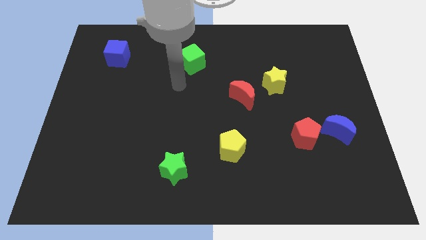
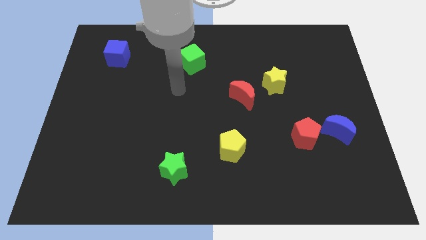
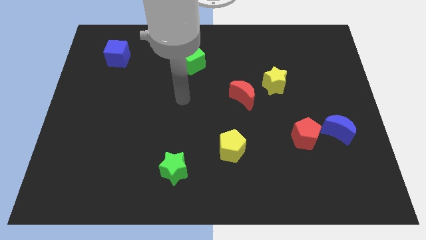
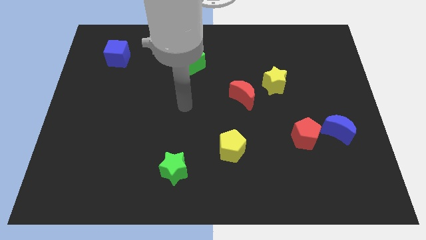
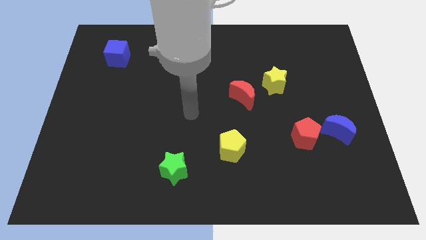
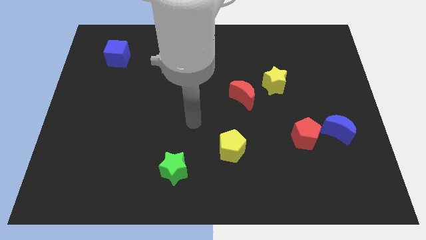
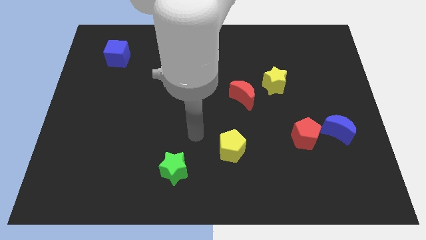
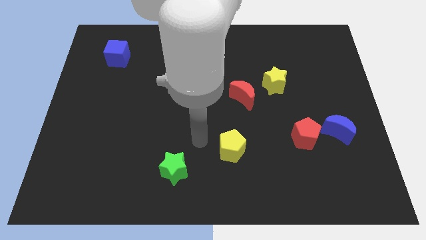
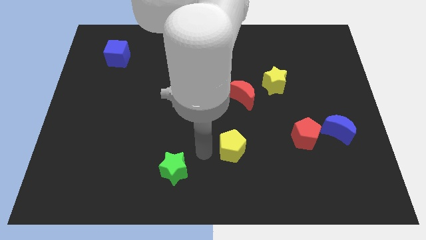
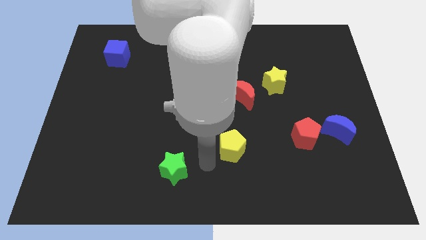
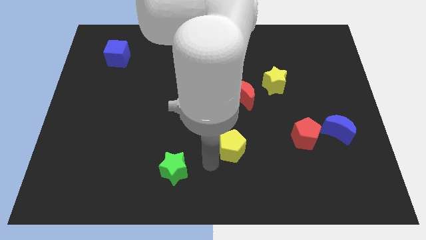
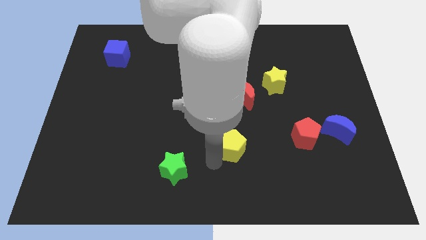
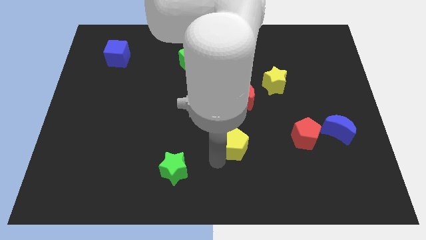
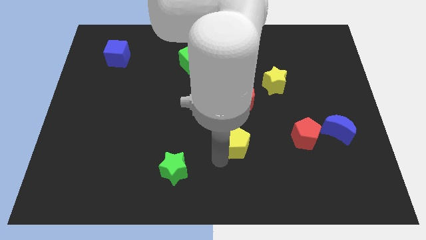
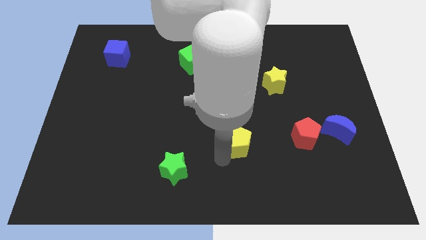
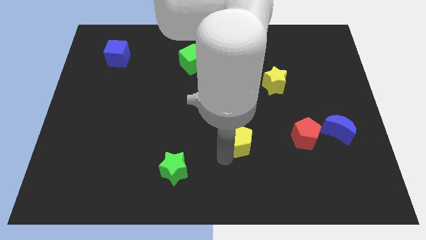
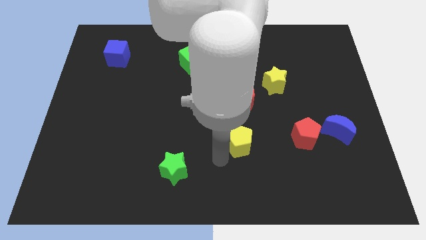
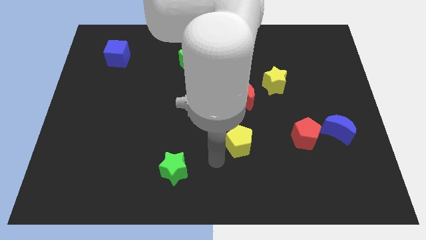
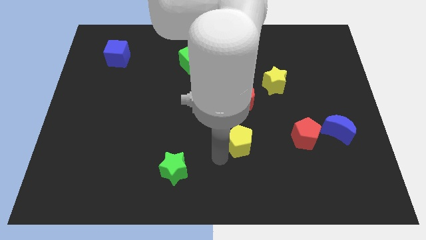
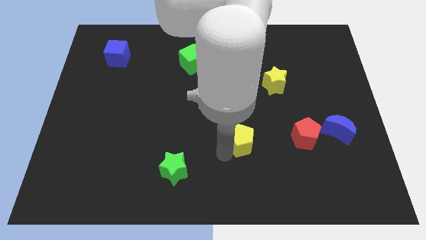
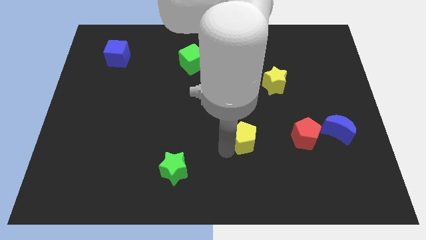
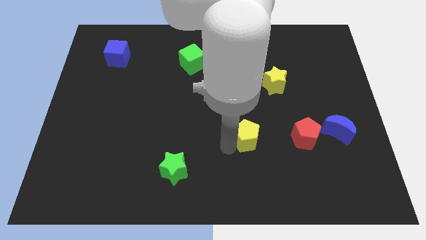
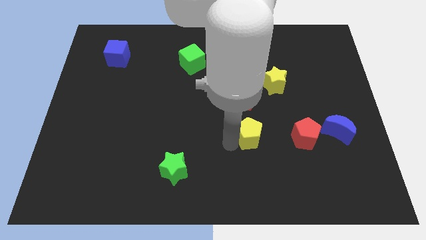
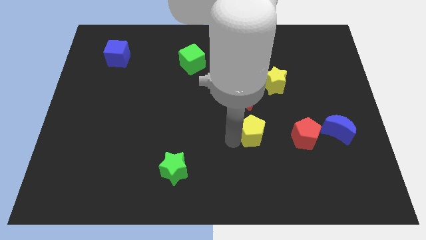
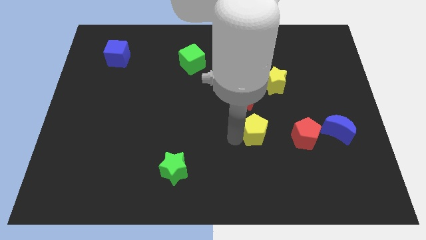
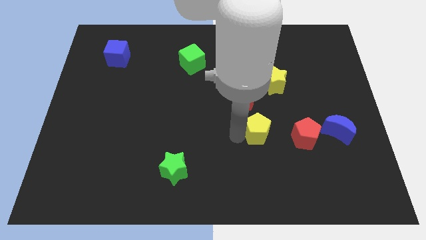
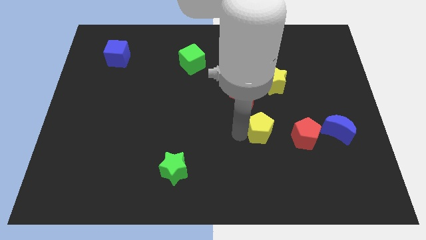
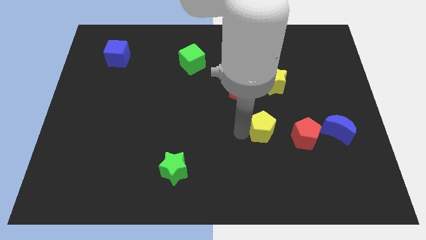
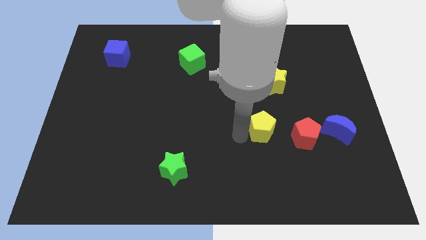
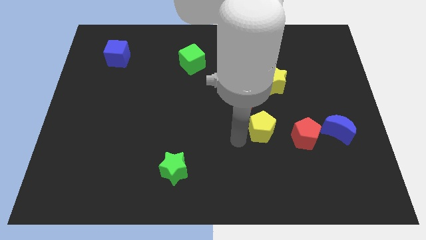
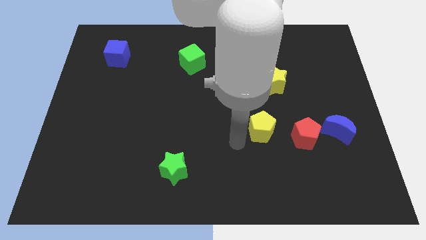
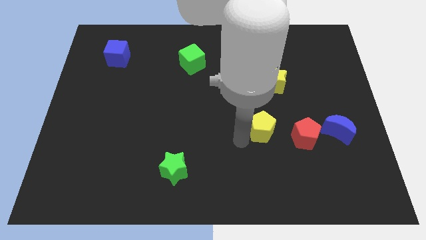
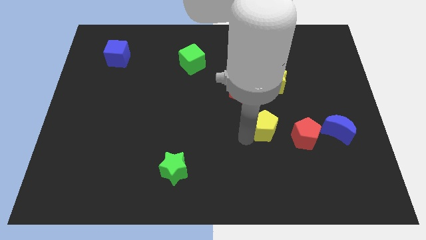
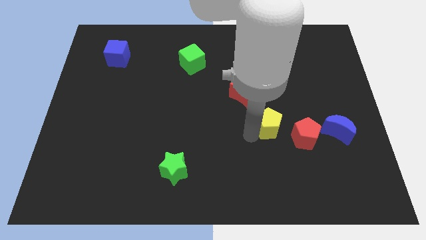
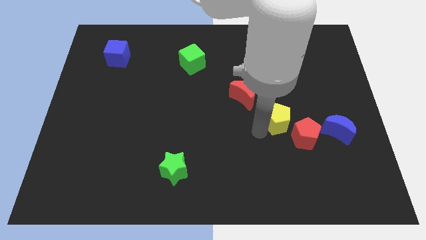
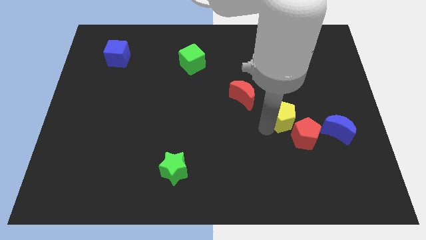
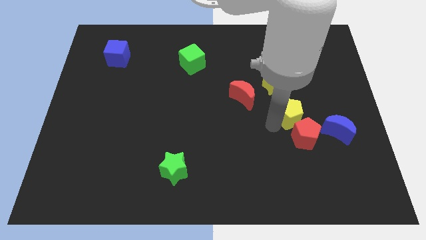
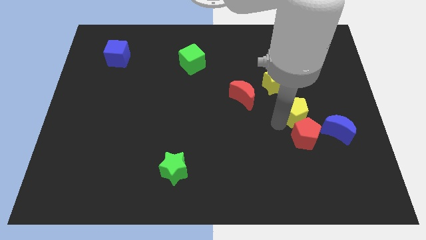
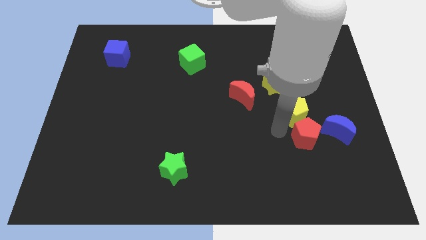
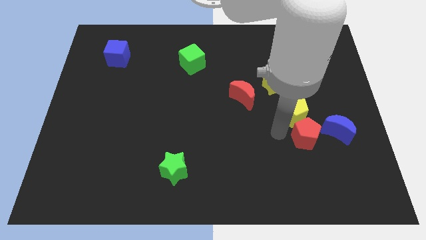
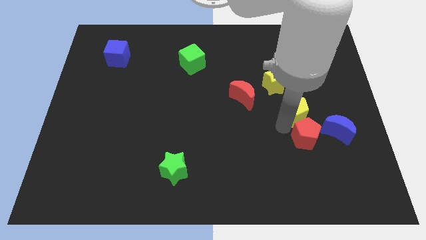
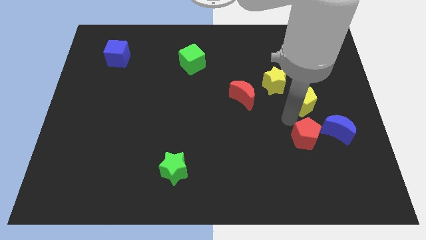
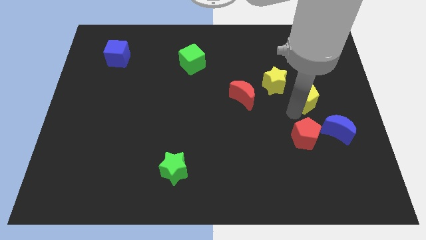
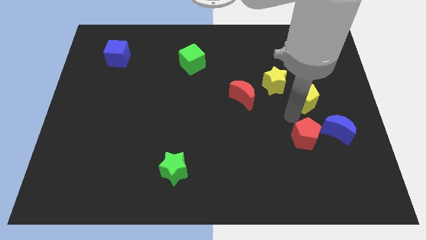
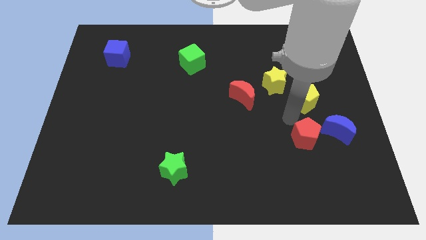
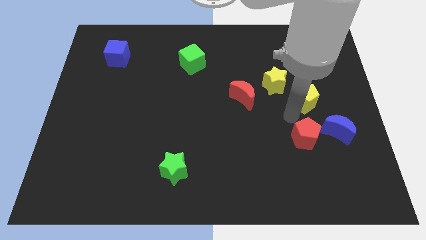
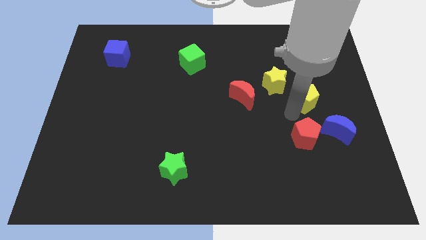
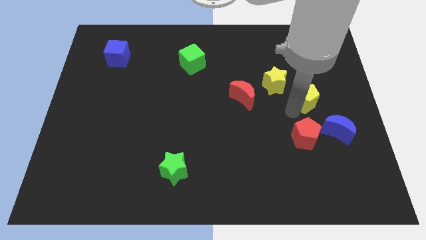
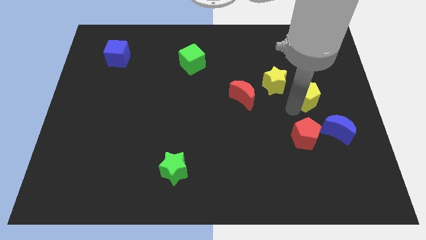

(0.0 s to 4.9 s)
move the yellow pentagon to the right of the yellow star

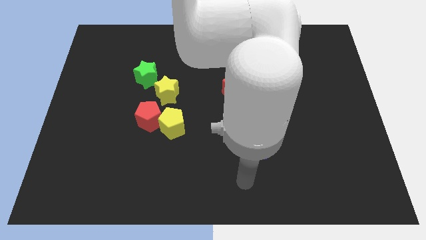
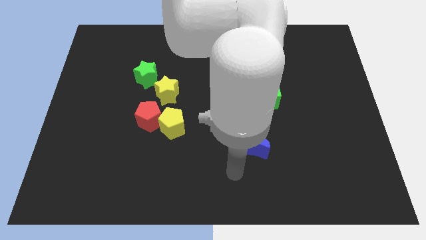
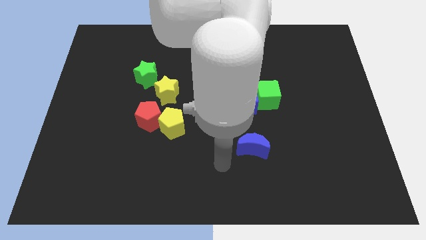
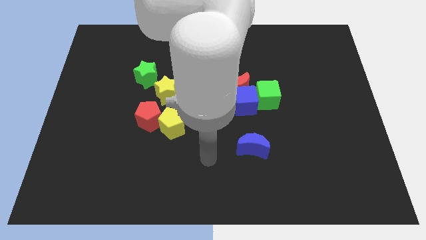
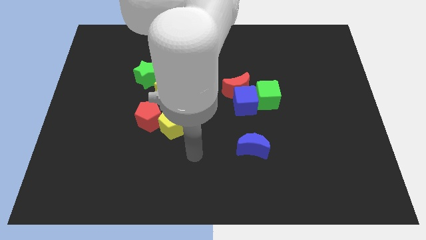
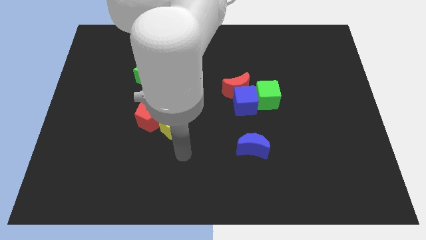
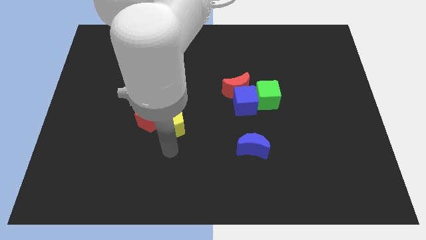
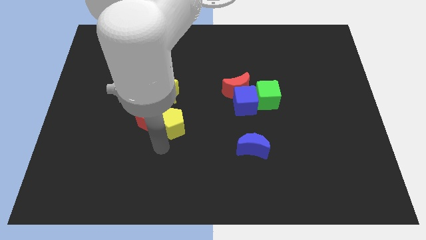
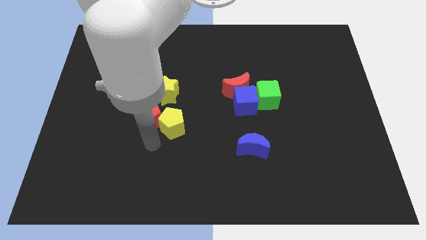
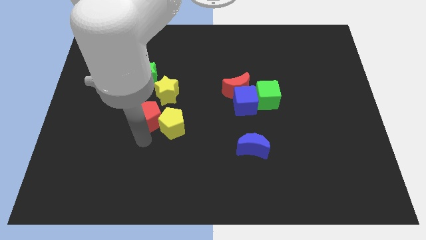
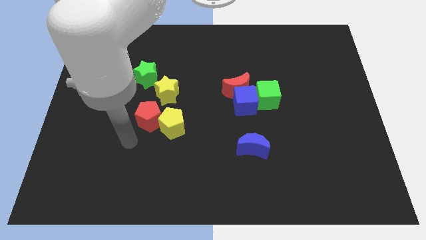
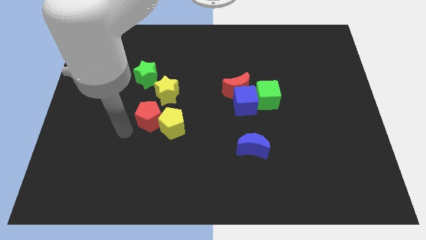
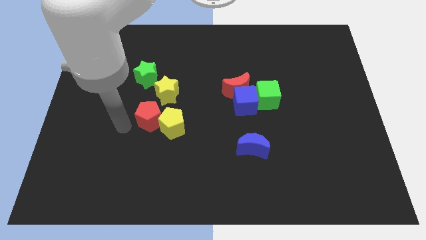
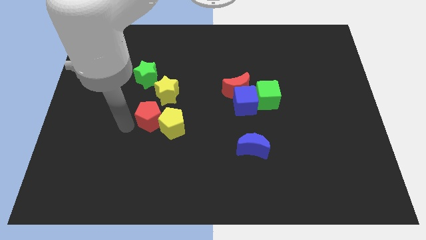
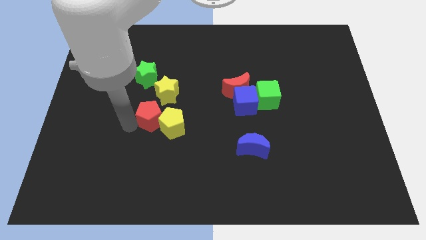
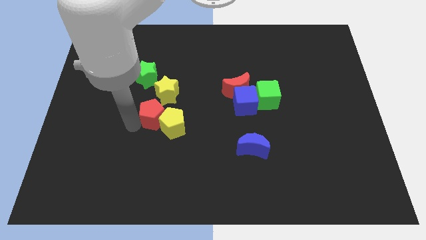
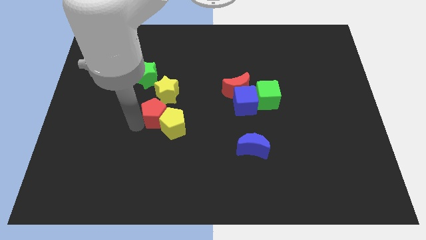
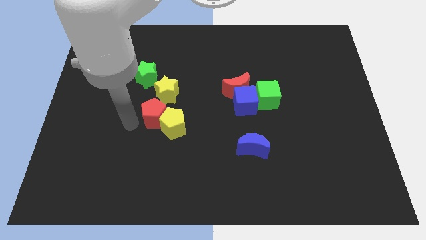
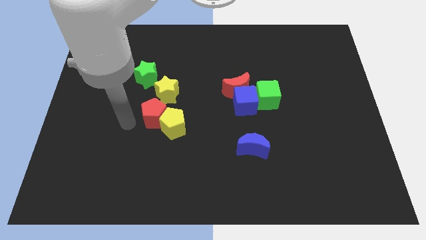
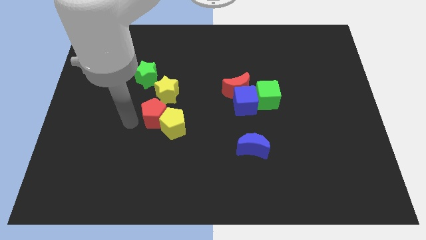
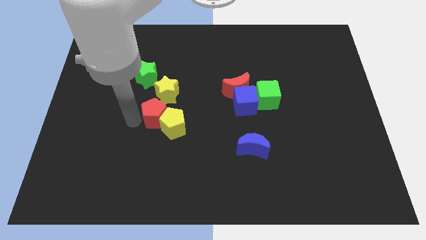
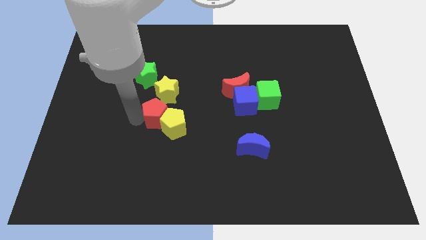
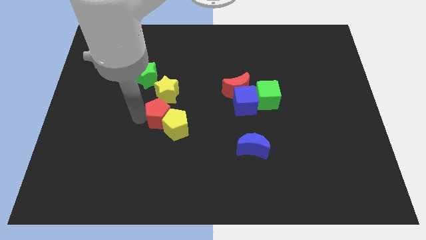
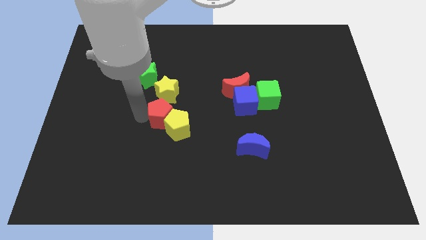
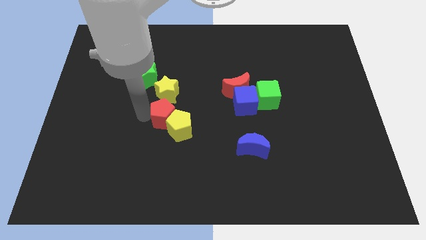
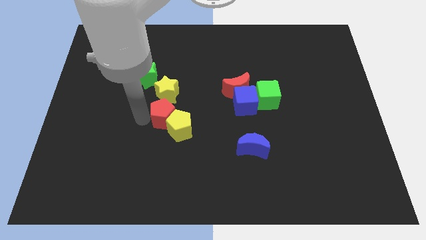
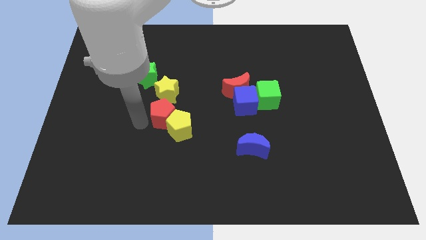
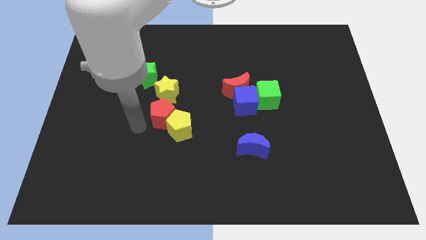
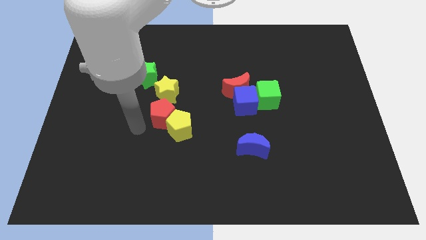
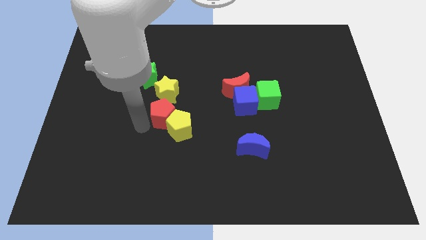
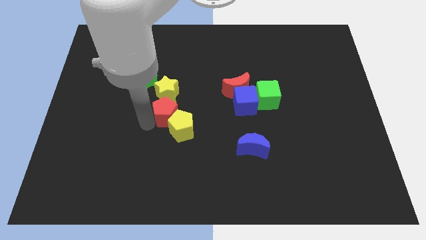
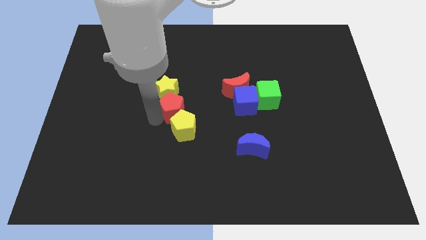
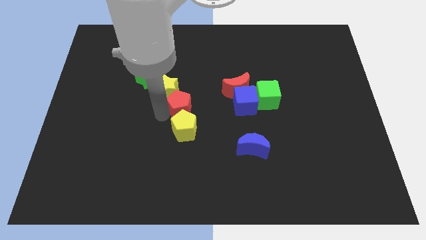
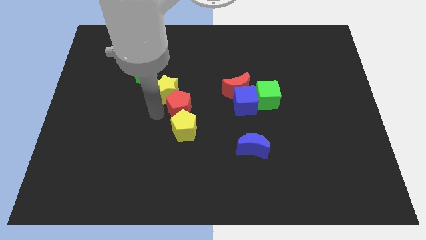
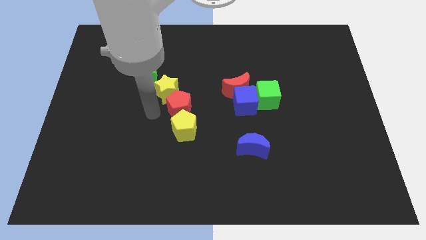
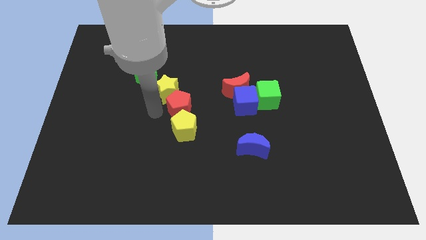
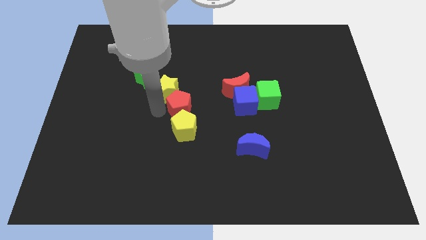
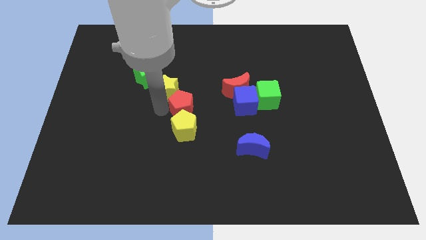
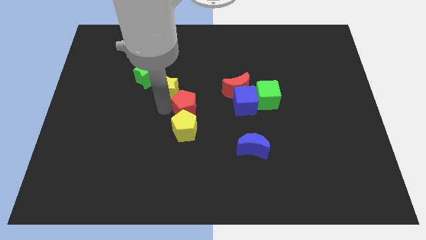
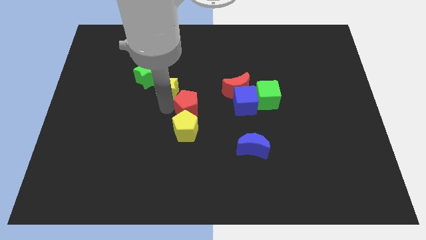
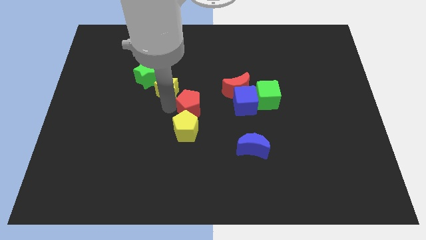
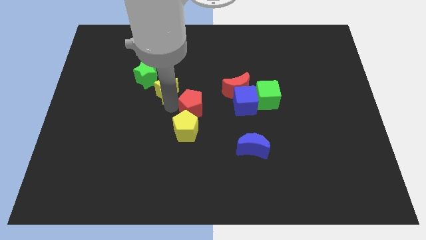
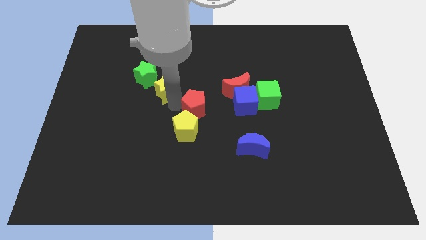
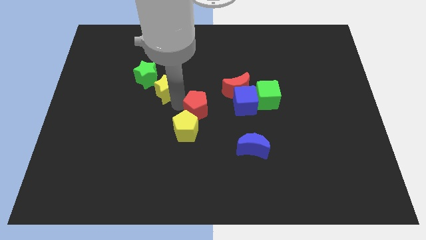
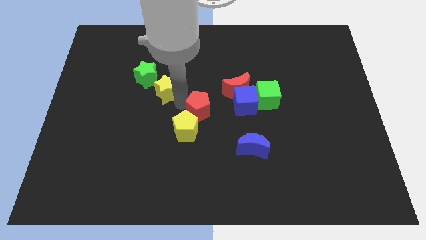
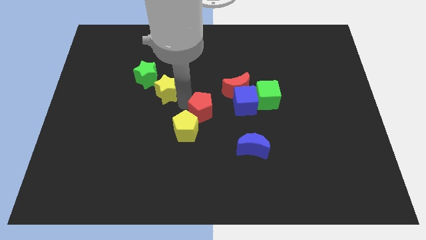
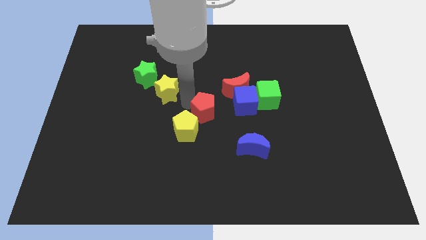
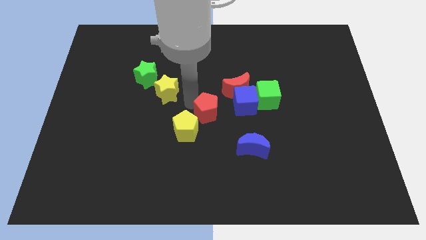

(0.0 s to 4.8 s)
slide the red pentagon just left of the green cube
